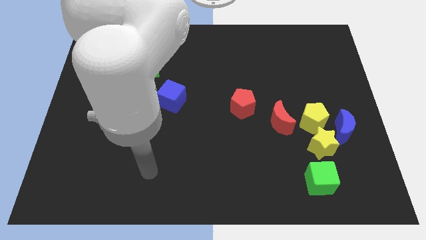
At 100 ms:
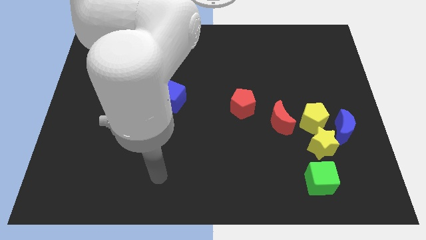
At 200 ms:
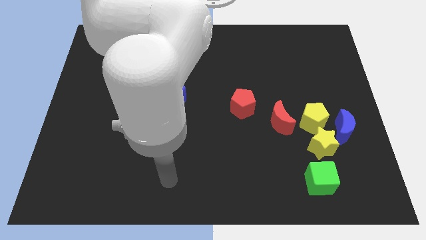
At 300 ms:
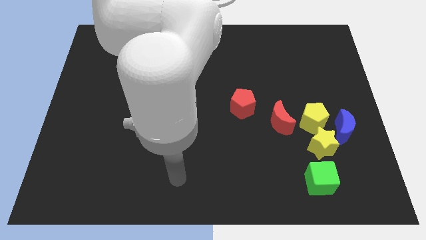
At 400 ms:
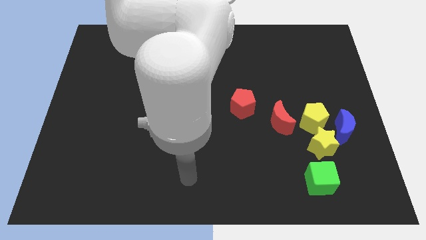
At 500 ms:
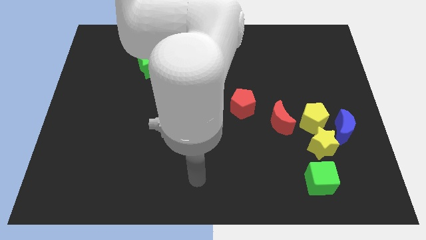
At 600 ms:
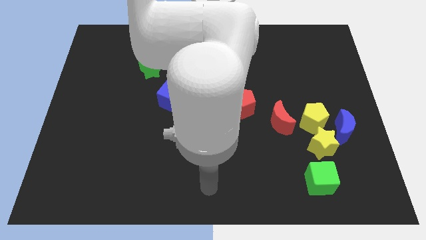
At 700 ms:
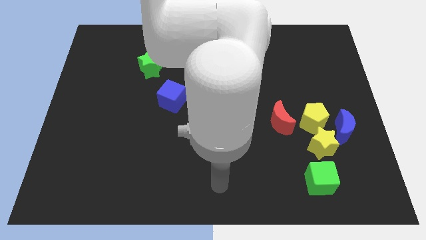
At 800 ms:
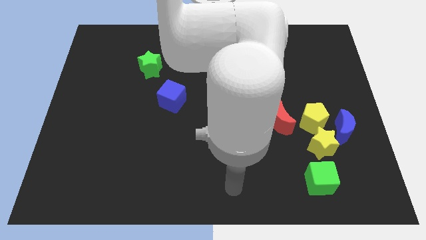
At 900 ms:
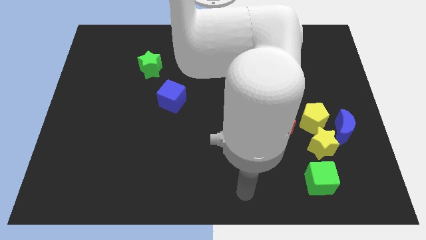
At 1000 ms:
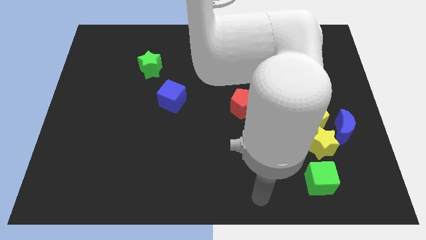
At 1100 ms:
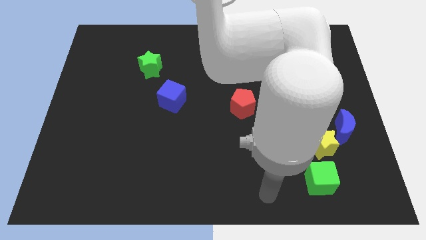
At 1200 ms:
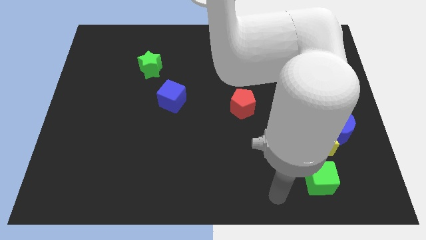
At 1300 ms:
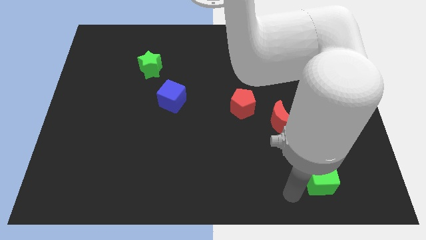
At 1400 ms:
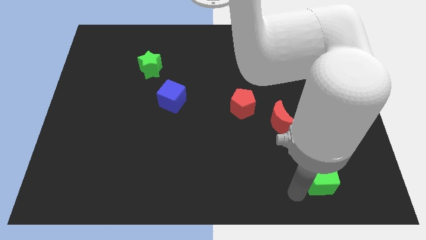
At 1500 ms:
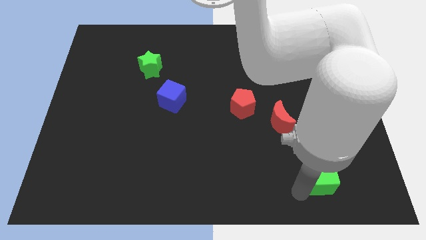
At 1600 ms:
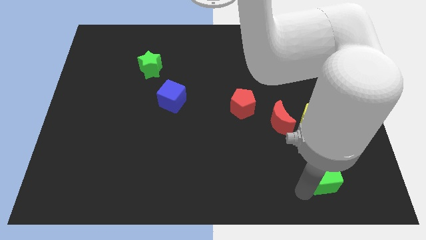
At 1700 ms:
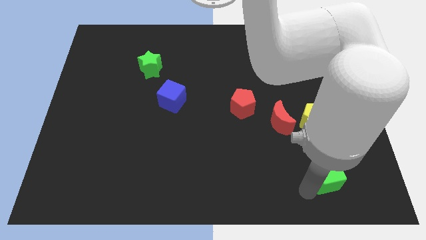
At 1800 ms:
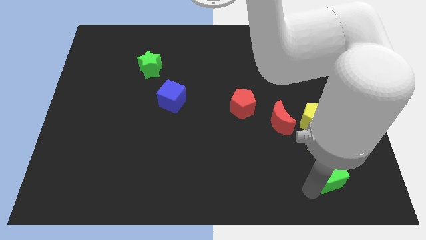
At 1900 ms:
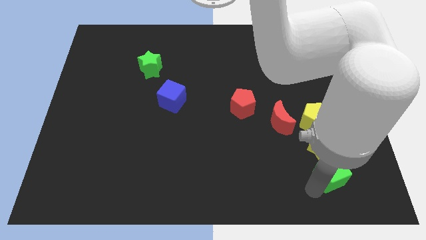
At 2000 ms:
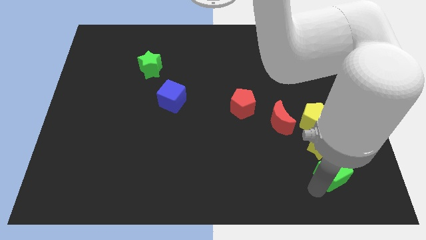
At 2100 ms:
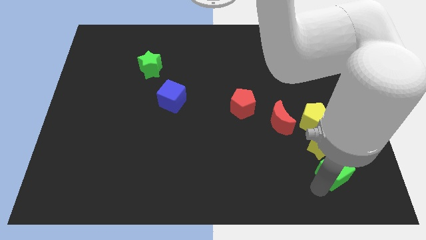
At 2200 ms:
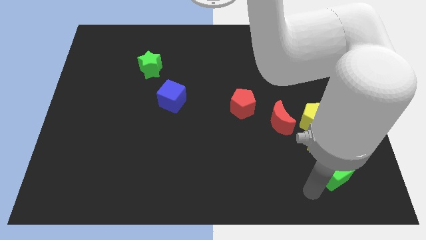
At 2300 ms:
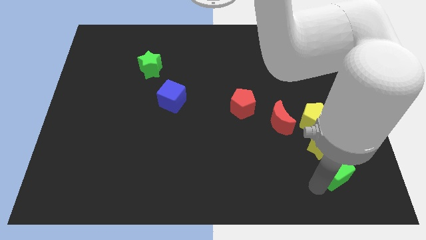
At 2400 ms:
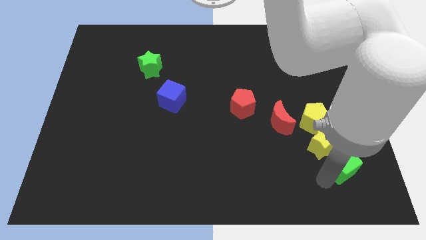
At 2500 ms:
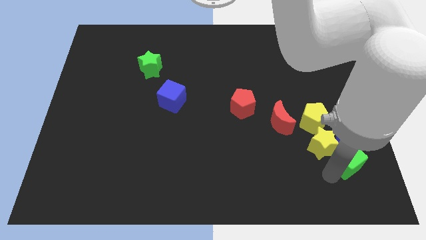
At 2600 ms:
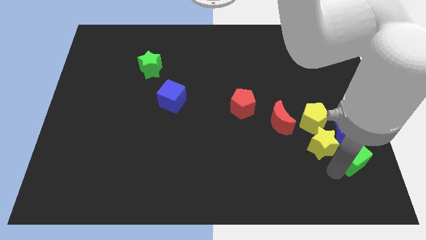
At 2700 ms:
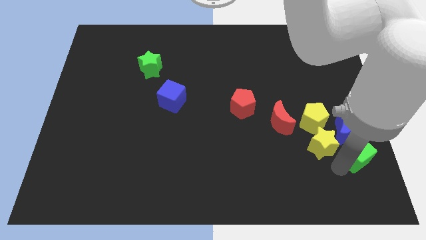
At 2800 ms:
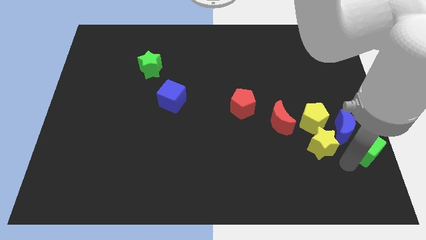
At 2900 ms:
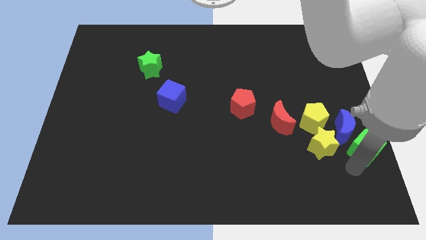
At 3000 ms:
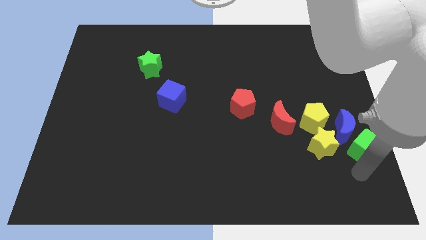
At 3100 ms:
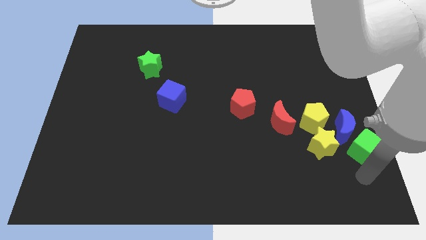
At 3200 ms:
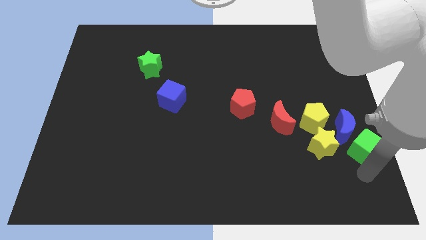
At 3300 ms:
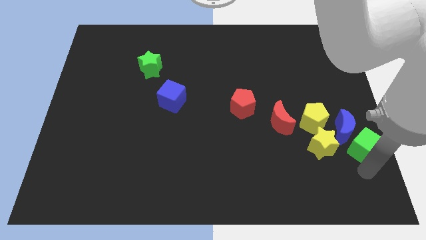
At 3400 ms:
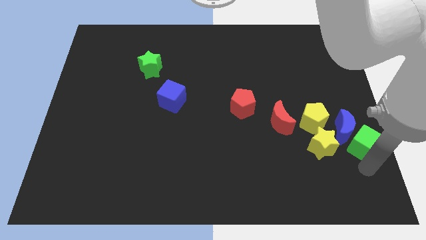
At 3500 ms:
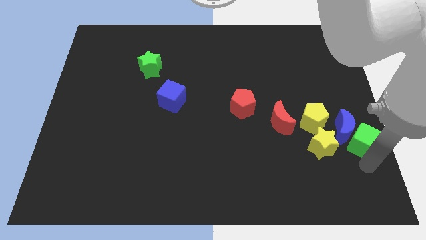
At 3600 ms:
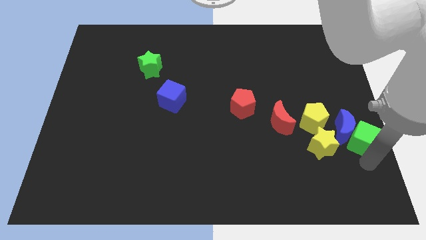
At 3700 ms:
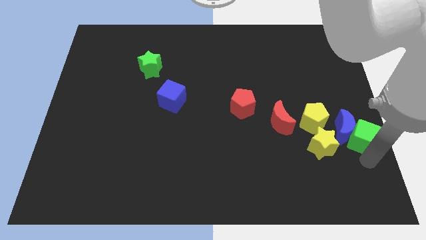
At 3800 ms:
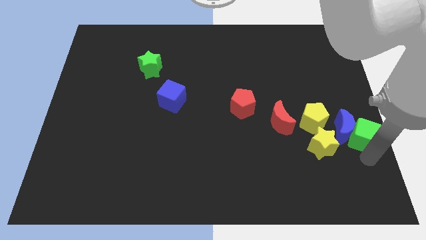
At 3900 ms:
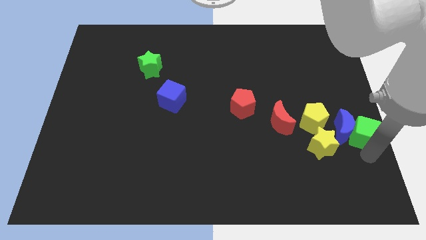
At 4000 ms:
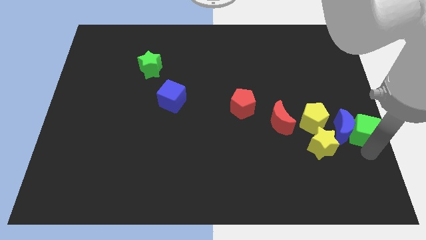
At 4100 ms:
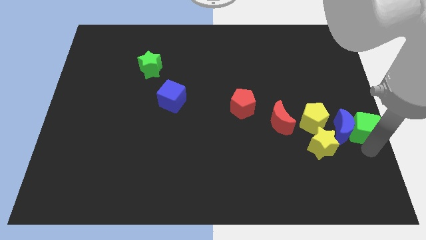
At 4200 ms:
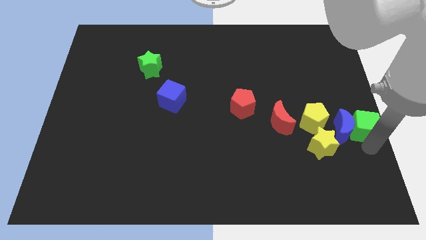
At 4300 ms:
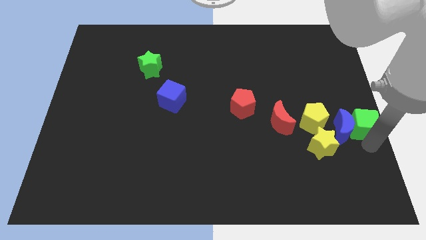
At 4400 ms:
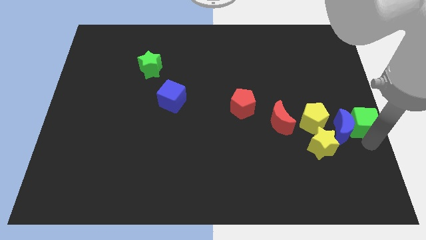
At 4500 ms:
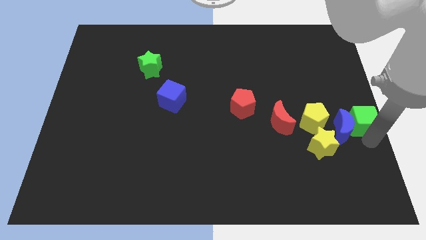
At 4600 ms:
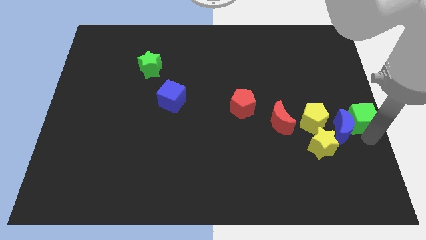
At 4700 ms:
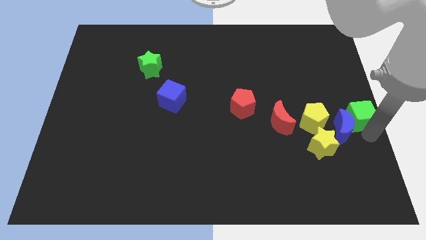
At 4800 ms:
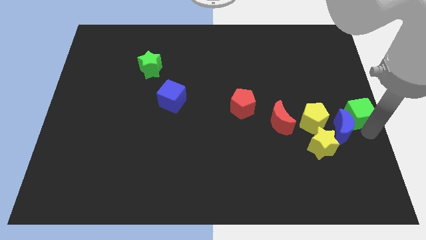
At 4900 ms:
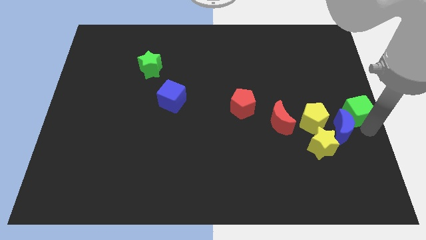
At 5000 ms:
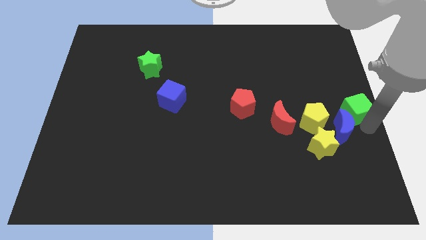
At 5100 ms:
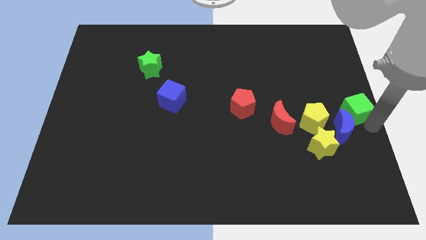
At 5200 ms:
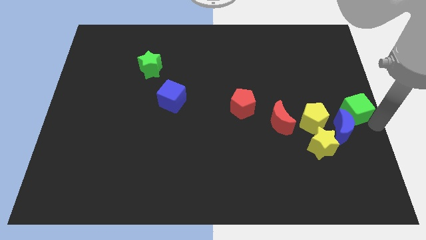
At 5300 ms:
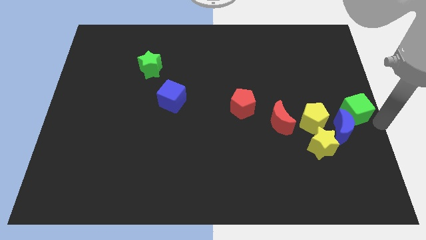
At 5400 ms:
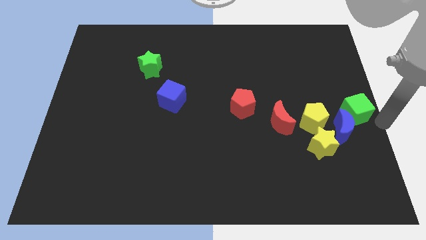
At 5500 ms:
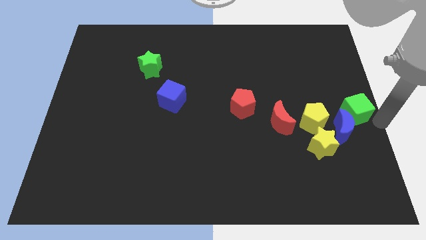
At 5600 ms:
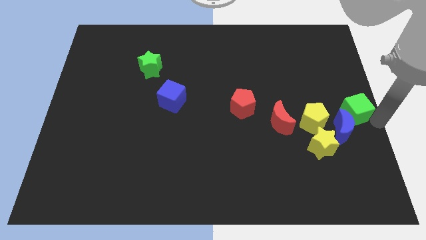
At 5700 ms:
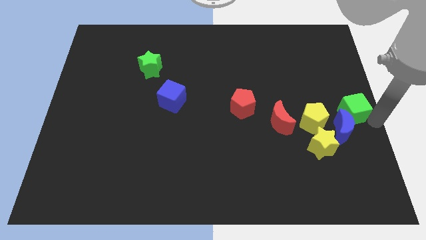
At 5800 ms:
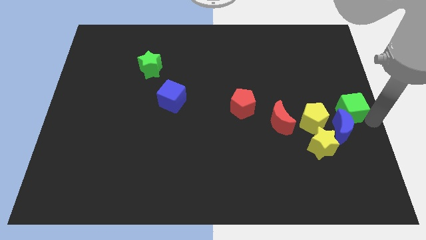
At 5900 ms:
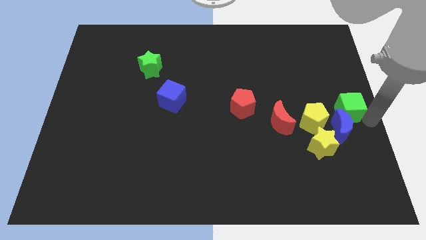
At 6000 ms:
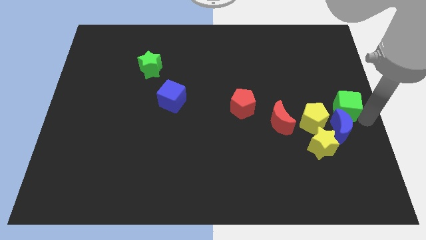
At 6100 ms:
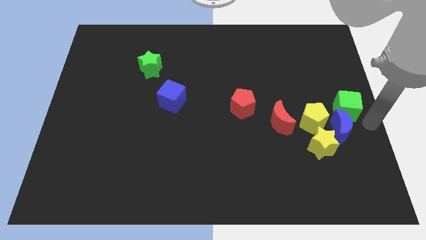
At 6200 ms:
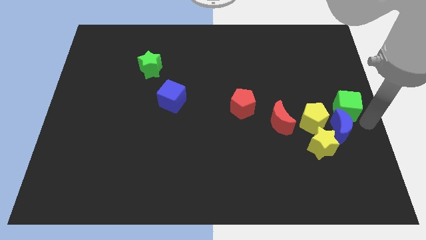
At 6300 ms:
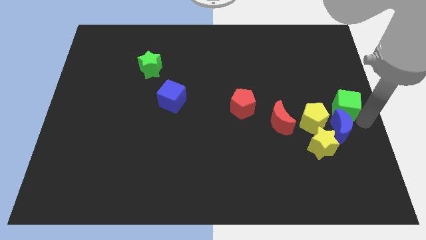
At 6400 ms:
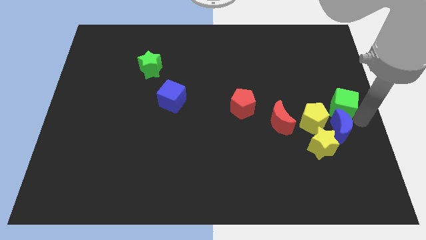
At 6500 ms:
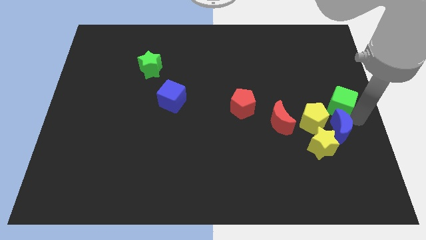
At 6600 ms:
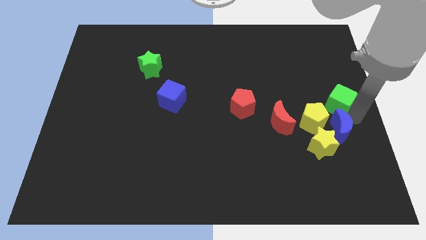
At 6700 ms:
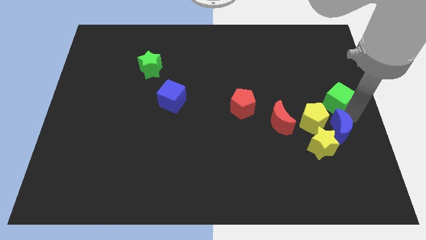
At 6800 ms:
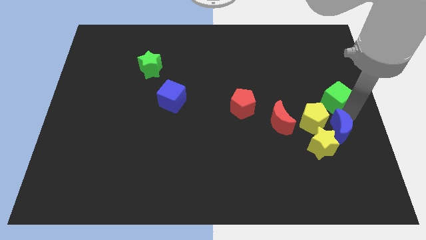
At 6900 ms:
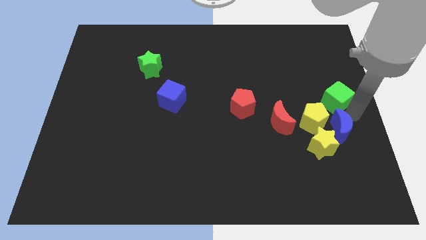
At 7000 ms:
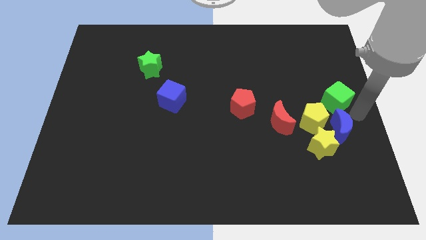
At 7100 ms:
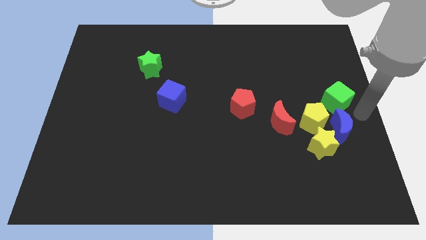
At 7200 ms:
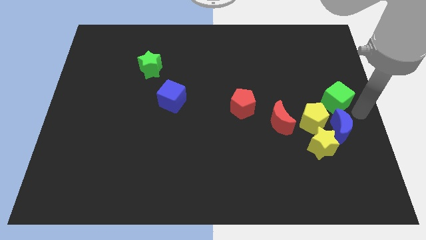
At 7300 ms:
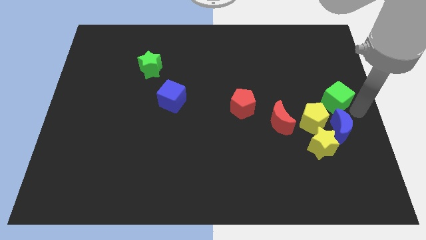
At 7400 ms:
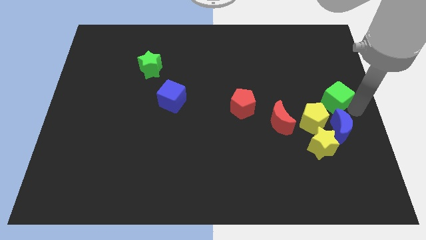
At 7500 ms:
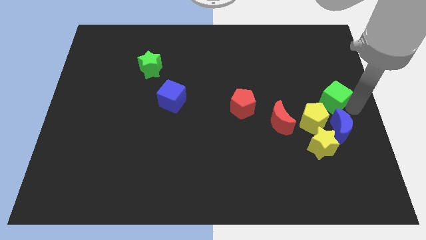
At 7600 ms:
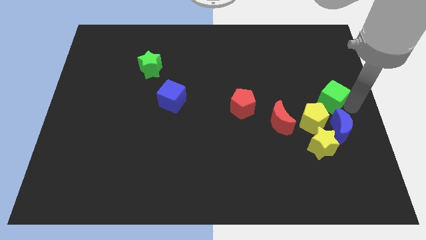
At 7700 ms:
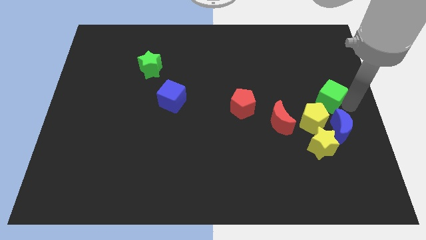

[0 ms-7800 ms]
put the green cube to the top of the yellow pentagon
